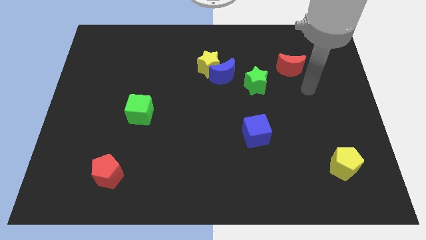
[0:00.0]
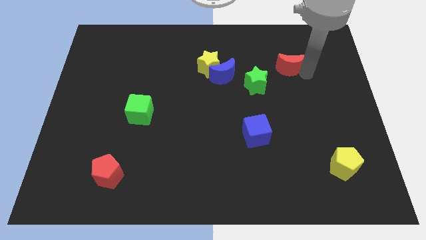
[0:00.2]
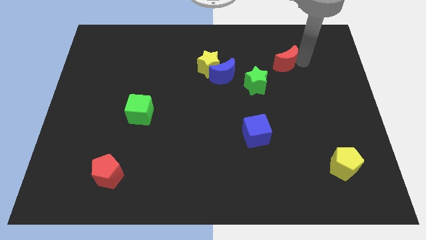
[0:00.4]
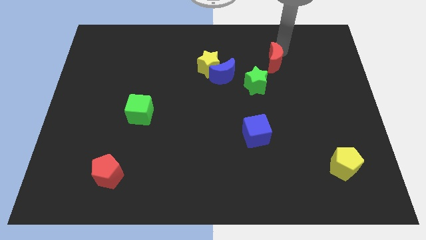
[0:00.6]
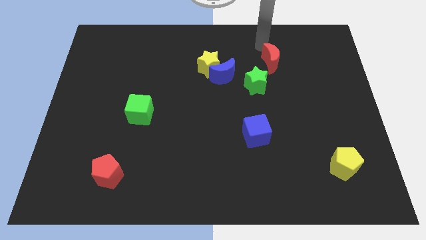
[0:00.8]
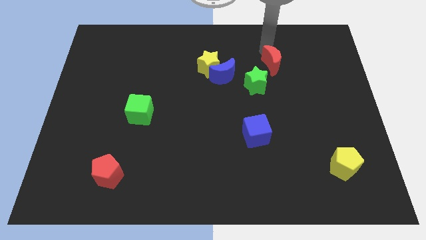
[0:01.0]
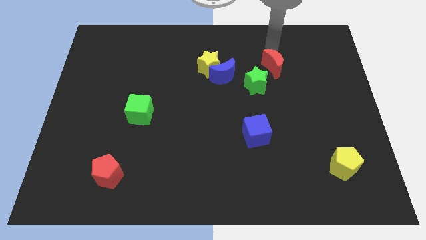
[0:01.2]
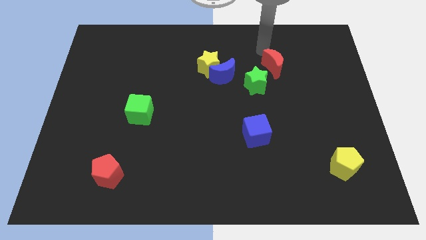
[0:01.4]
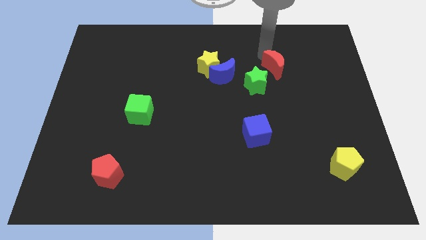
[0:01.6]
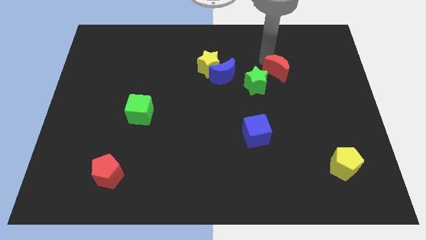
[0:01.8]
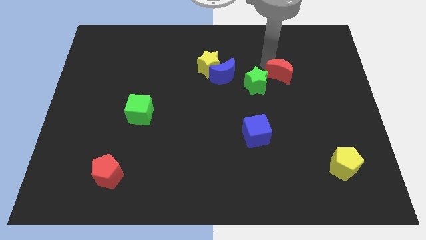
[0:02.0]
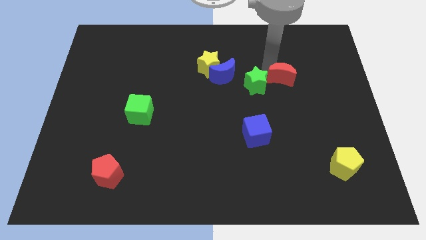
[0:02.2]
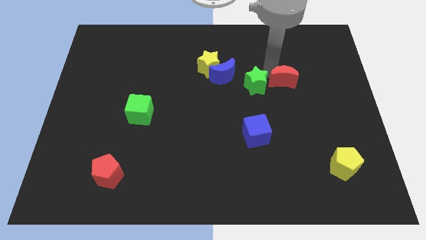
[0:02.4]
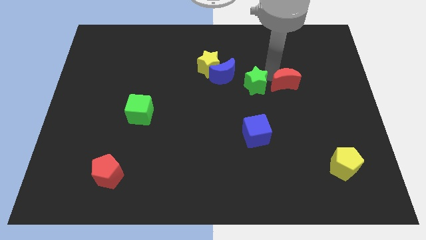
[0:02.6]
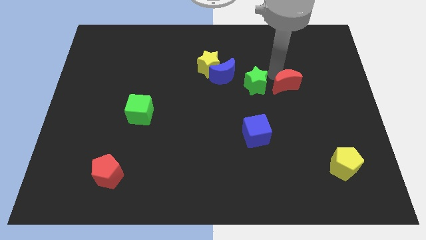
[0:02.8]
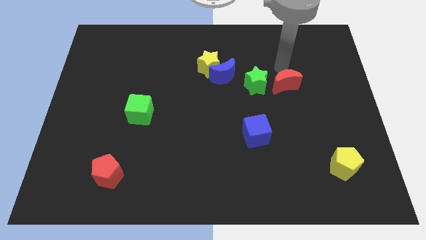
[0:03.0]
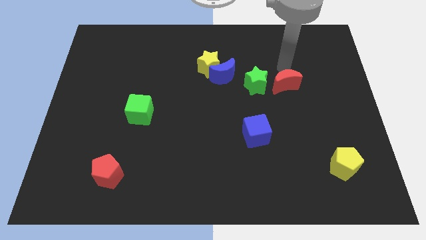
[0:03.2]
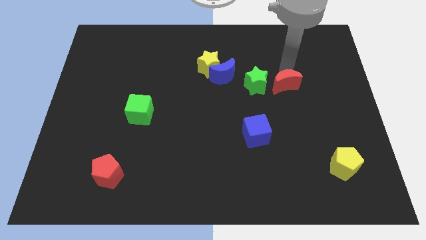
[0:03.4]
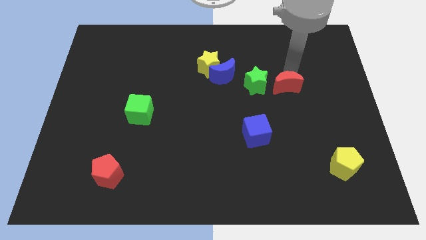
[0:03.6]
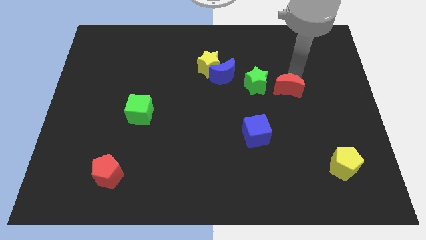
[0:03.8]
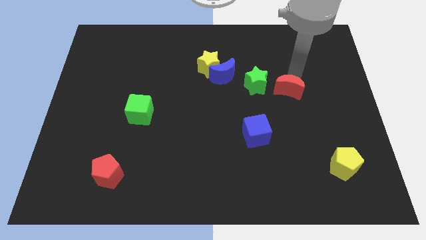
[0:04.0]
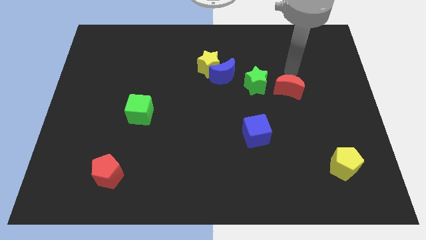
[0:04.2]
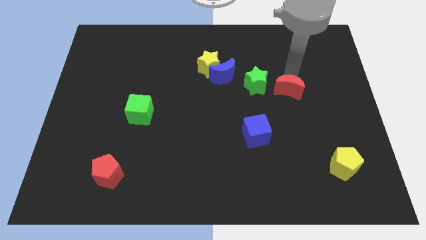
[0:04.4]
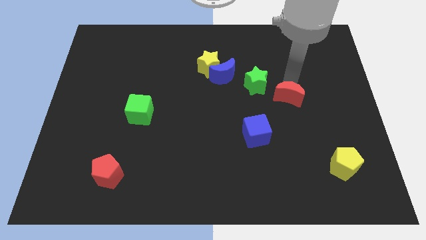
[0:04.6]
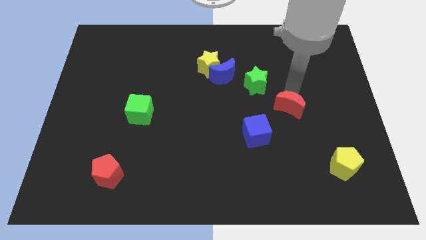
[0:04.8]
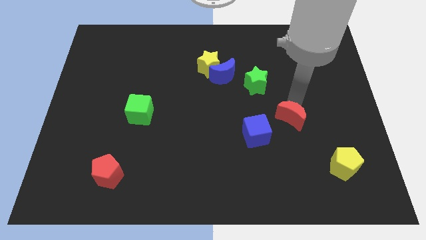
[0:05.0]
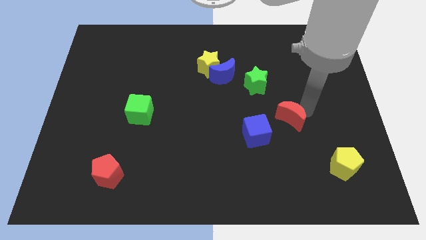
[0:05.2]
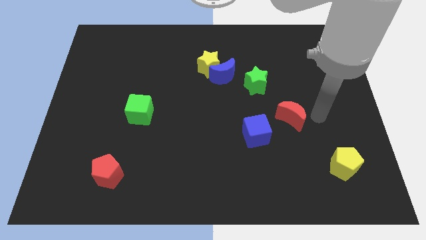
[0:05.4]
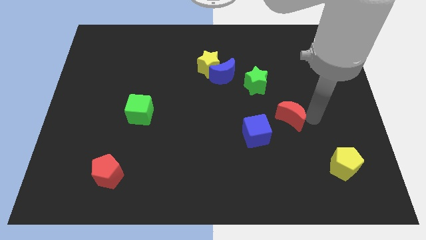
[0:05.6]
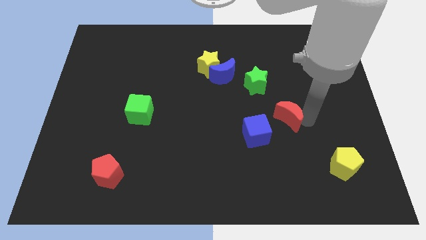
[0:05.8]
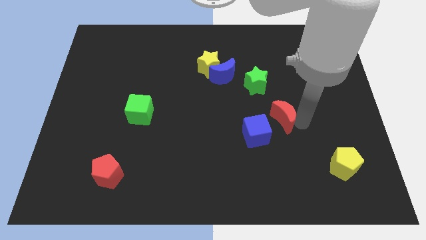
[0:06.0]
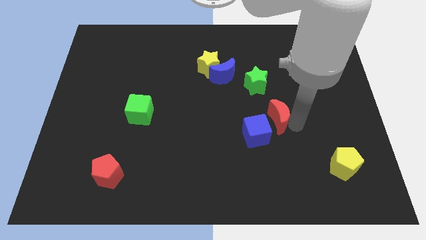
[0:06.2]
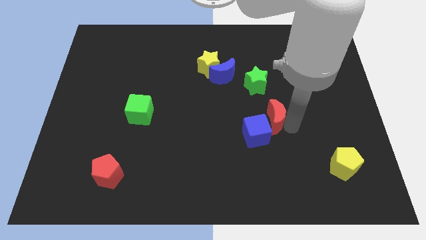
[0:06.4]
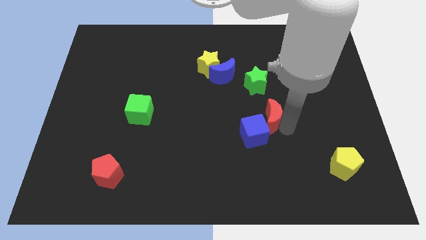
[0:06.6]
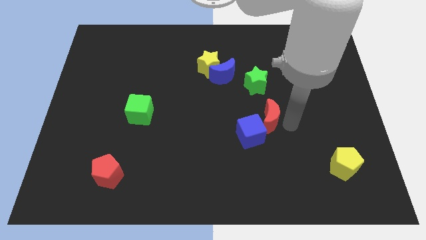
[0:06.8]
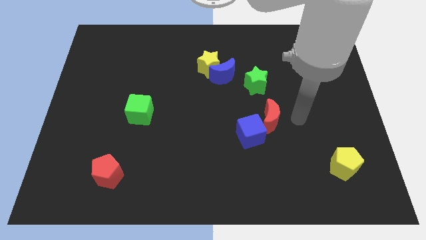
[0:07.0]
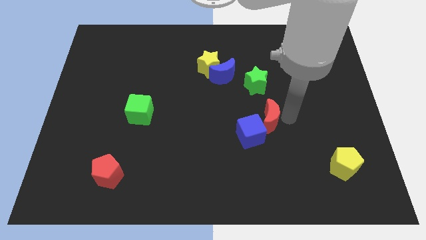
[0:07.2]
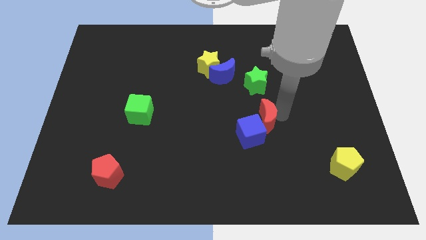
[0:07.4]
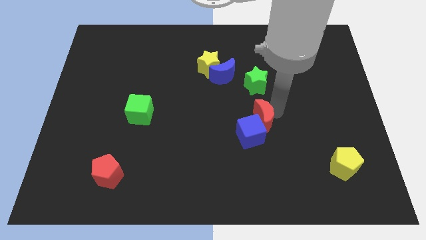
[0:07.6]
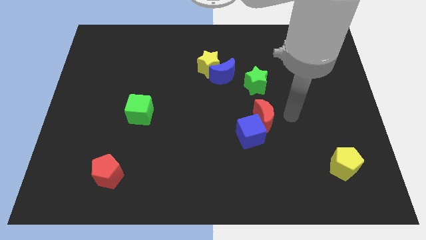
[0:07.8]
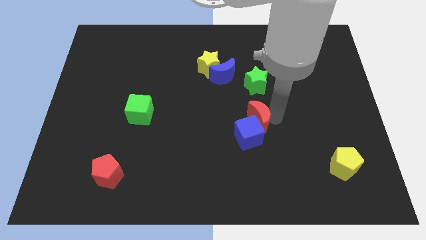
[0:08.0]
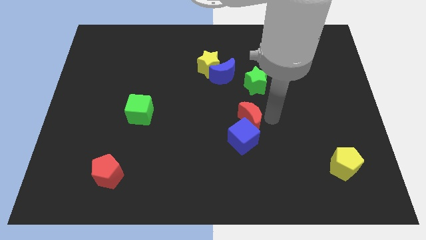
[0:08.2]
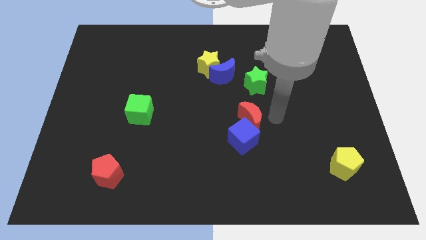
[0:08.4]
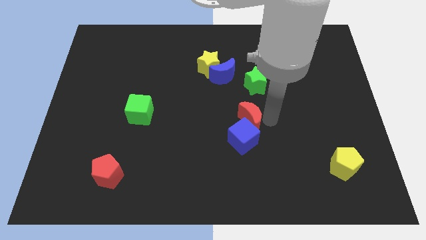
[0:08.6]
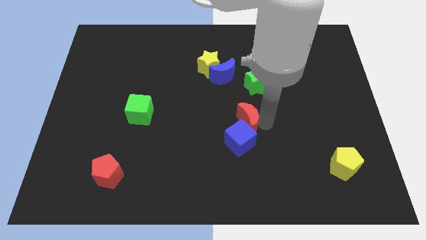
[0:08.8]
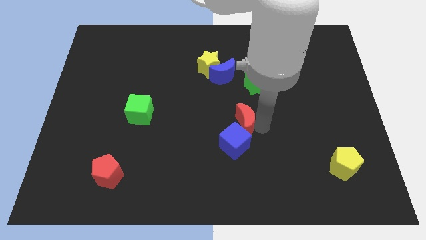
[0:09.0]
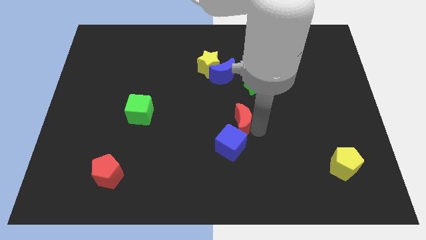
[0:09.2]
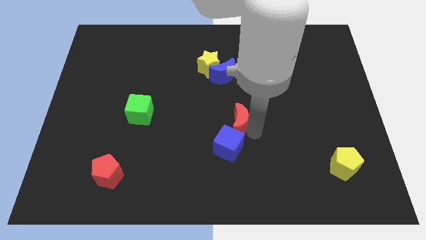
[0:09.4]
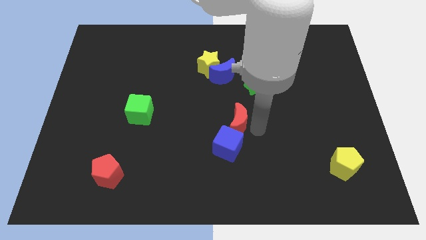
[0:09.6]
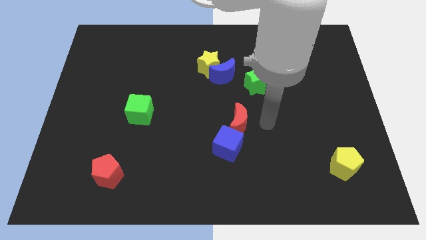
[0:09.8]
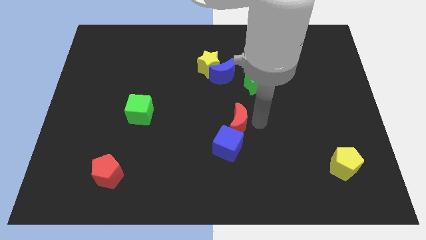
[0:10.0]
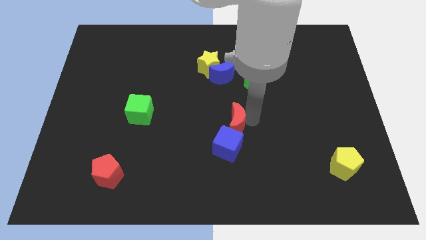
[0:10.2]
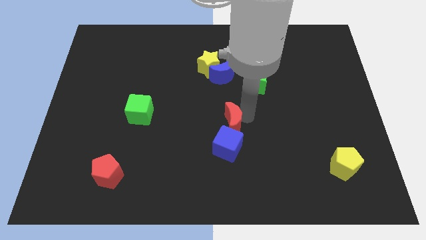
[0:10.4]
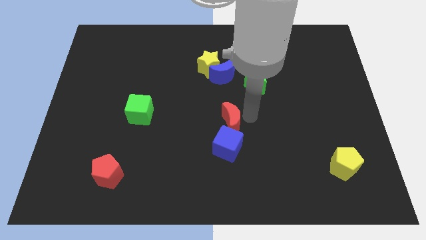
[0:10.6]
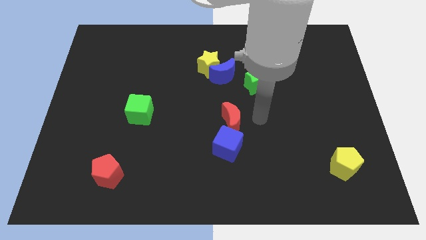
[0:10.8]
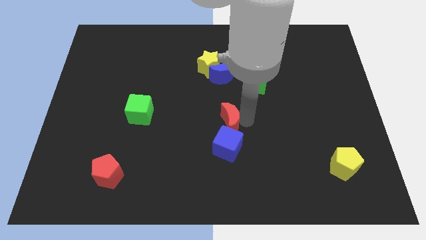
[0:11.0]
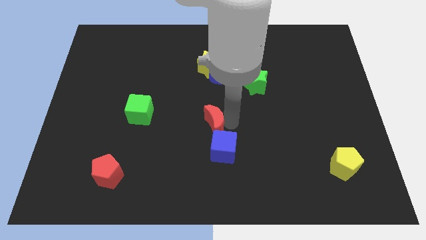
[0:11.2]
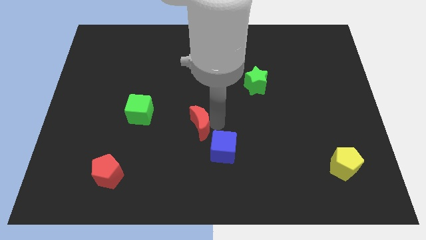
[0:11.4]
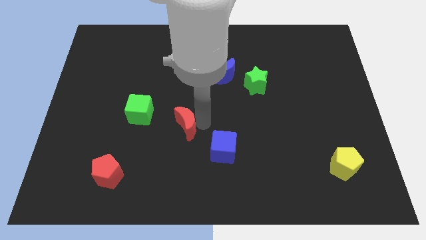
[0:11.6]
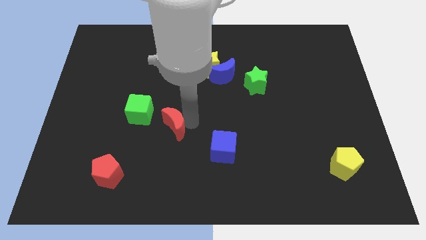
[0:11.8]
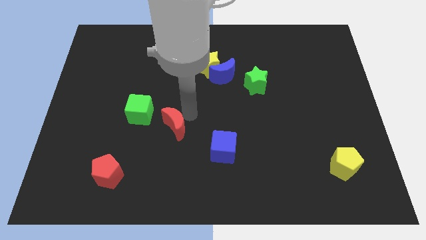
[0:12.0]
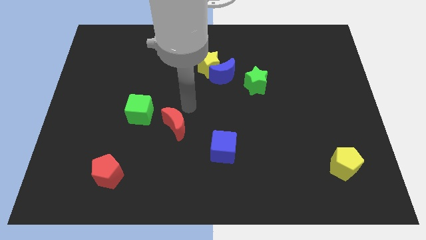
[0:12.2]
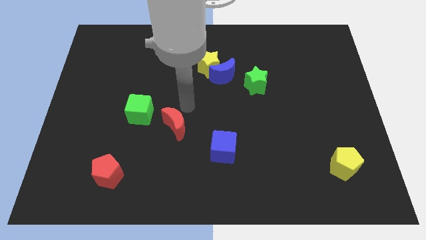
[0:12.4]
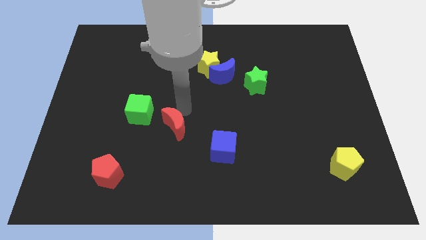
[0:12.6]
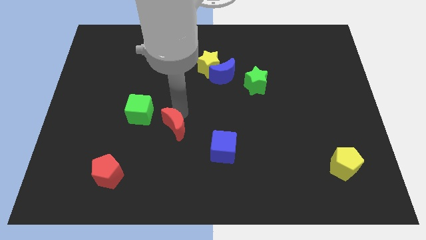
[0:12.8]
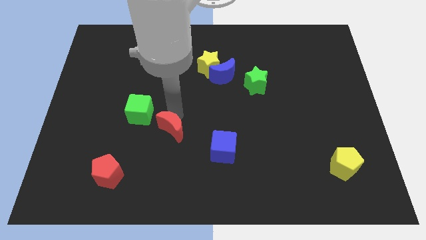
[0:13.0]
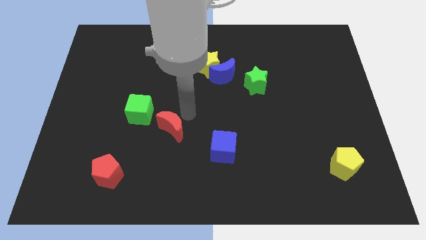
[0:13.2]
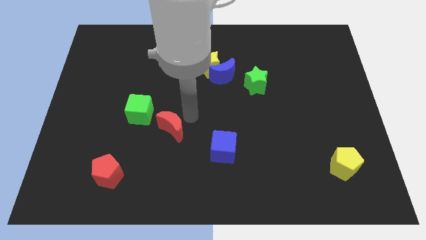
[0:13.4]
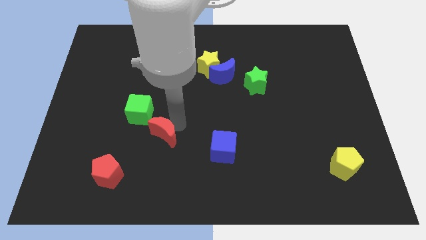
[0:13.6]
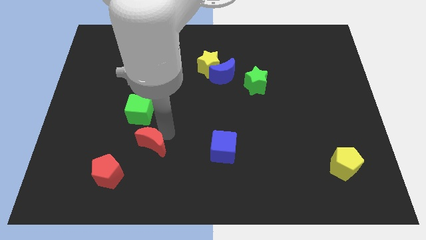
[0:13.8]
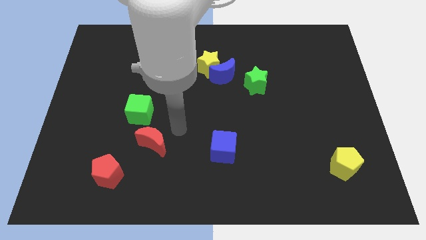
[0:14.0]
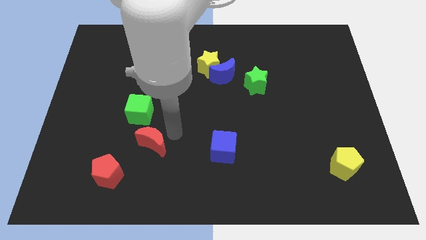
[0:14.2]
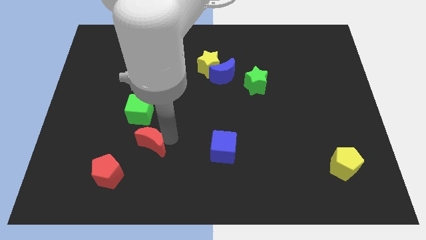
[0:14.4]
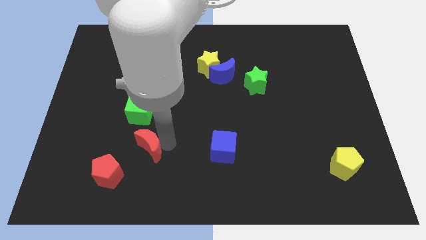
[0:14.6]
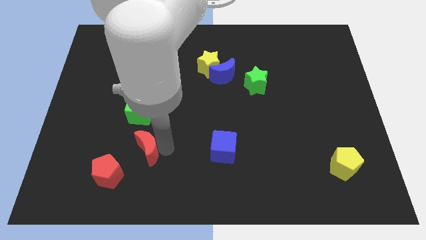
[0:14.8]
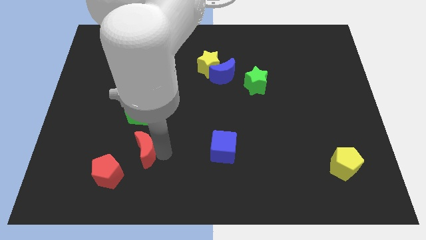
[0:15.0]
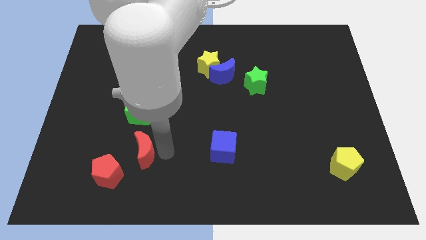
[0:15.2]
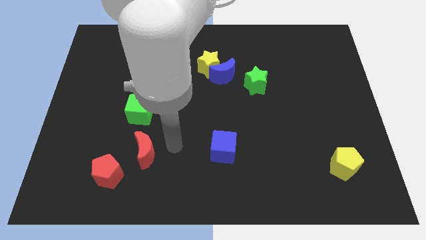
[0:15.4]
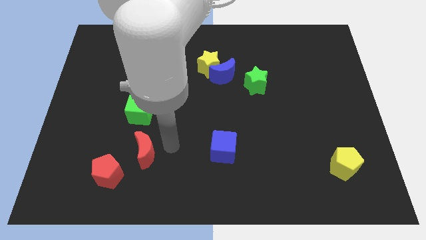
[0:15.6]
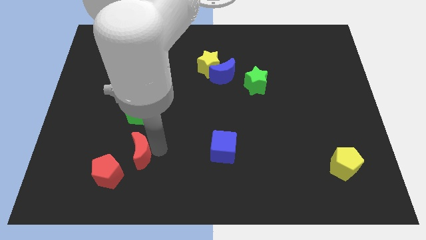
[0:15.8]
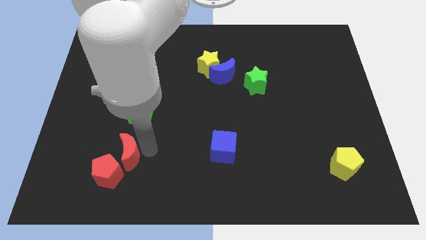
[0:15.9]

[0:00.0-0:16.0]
slide the red moon to the red pentagon
